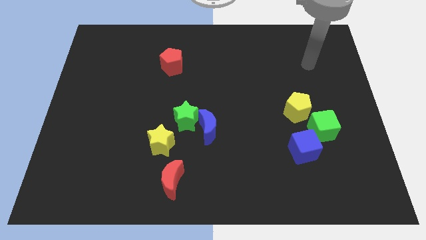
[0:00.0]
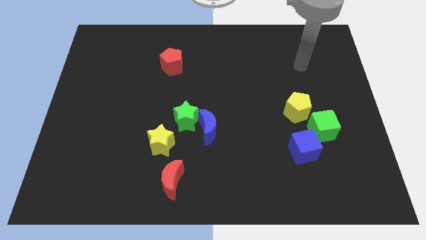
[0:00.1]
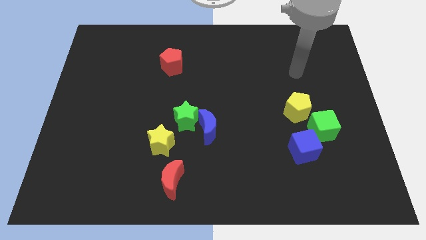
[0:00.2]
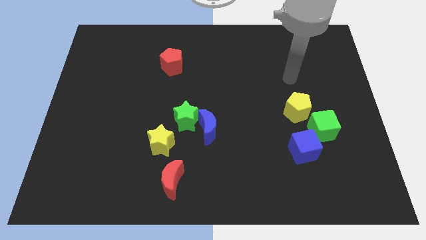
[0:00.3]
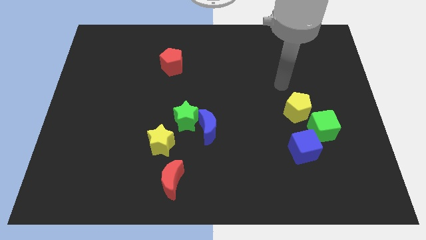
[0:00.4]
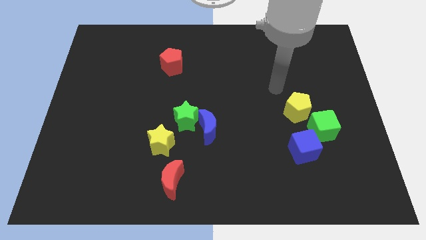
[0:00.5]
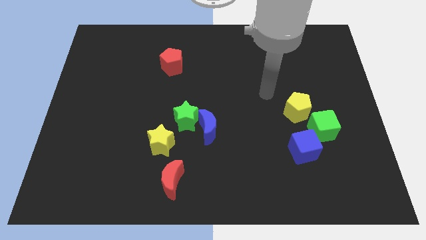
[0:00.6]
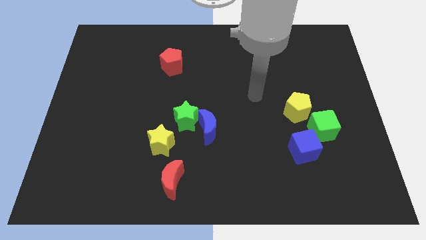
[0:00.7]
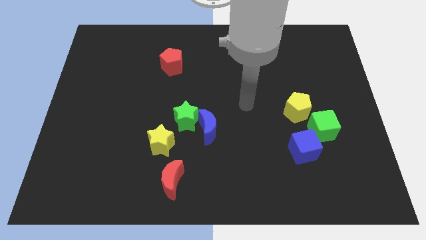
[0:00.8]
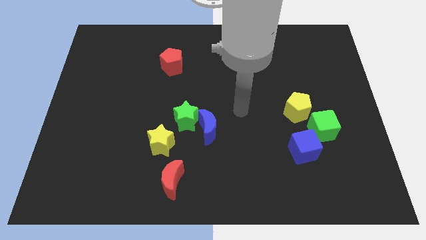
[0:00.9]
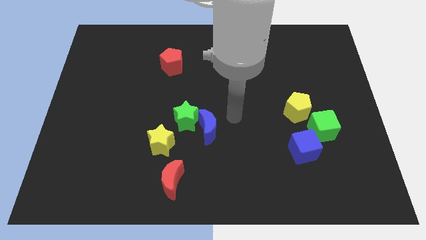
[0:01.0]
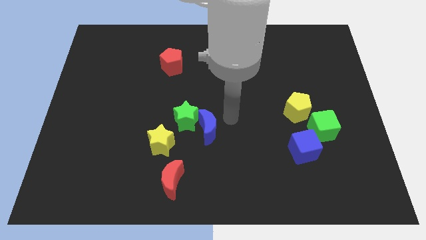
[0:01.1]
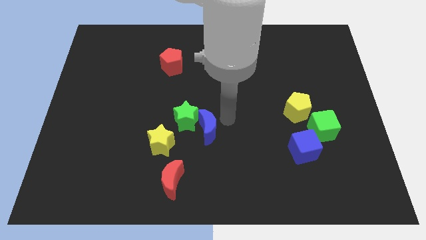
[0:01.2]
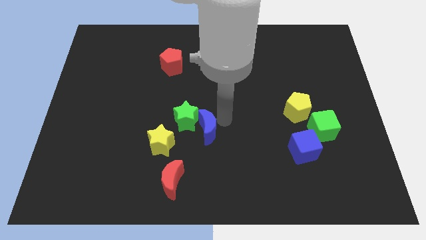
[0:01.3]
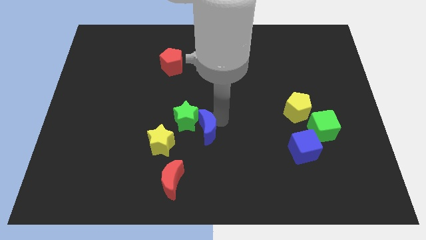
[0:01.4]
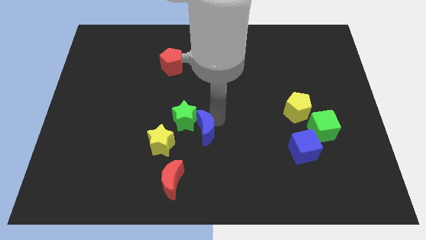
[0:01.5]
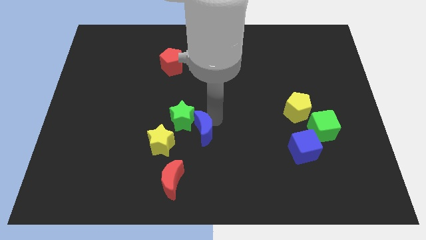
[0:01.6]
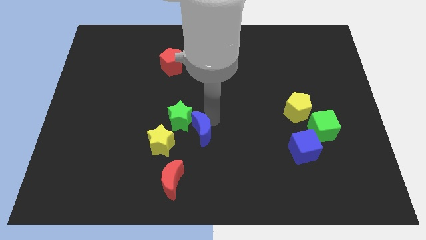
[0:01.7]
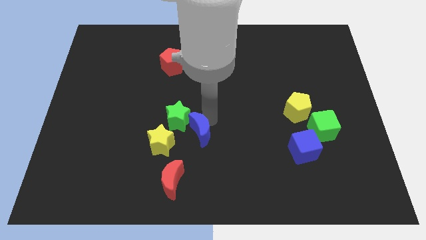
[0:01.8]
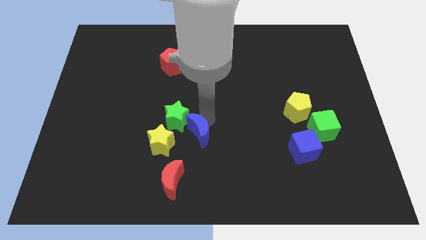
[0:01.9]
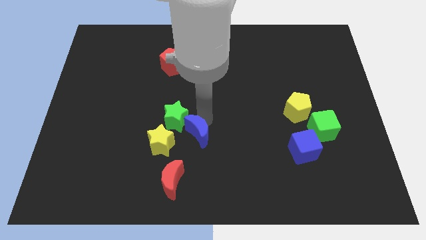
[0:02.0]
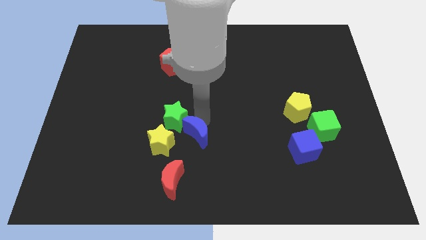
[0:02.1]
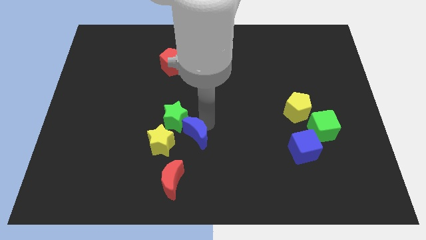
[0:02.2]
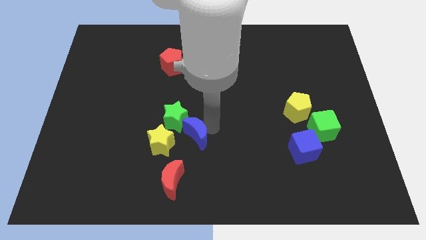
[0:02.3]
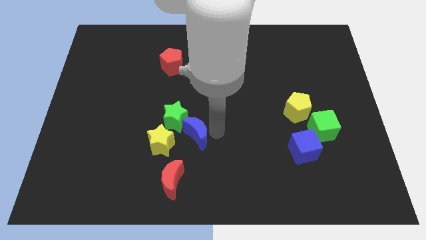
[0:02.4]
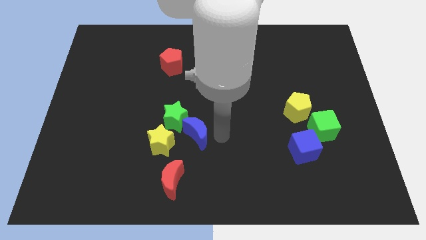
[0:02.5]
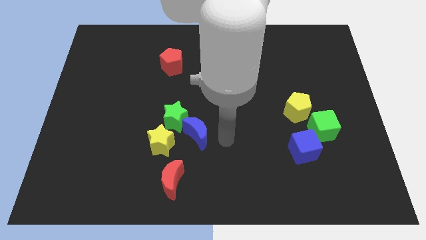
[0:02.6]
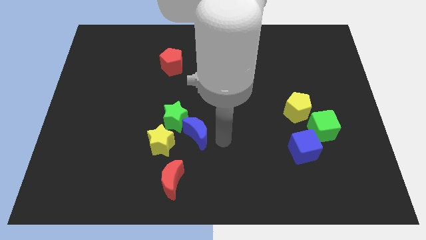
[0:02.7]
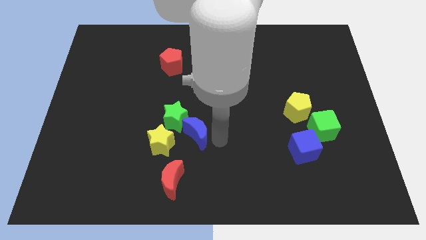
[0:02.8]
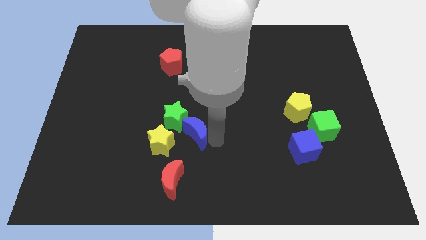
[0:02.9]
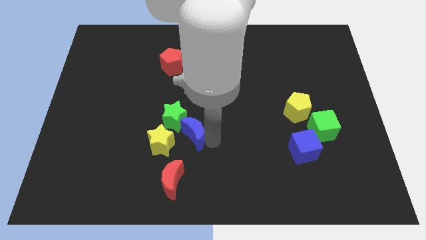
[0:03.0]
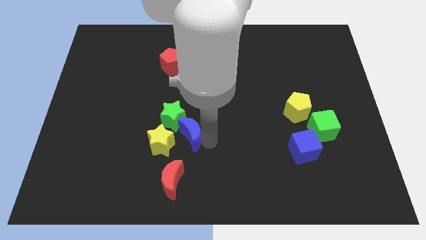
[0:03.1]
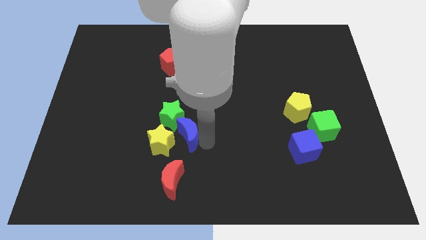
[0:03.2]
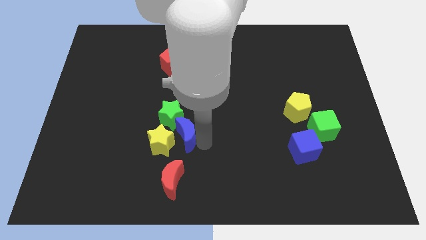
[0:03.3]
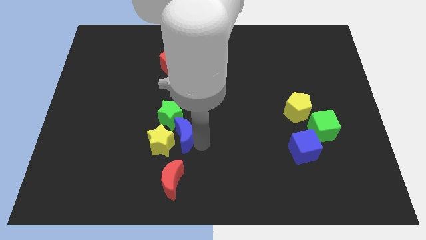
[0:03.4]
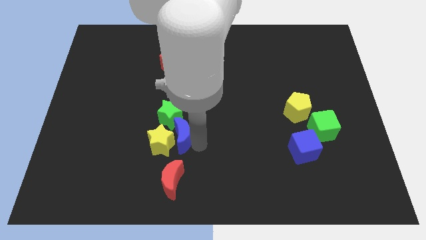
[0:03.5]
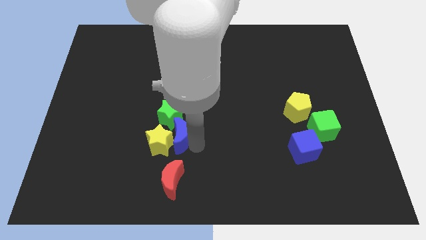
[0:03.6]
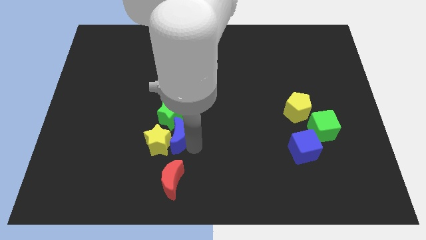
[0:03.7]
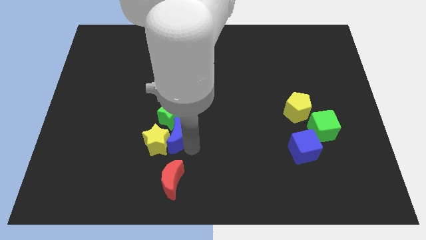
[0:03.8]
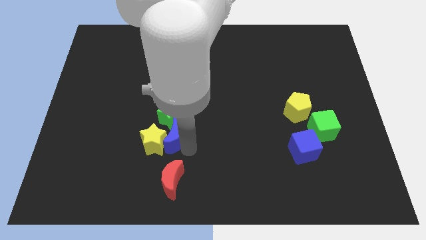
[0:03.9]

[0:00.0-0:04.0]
slightly slide the blue moon to the left

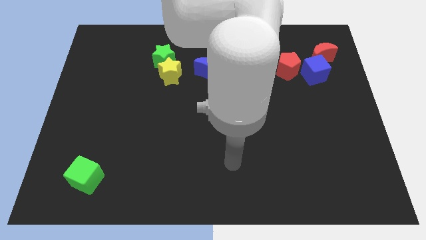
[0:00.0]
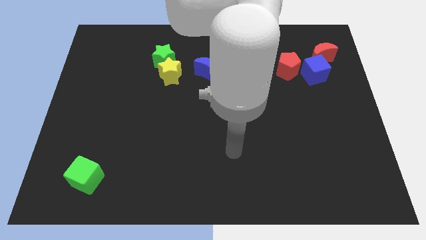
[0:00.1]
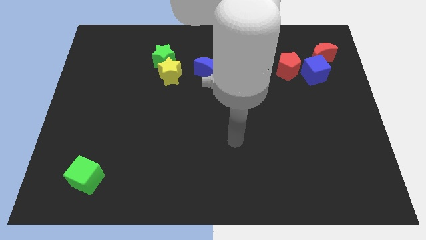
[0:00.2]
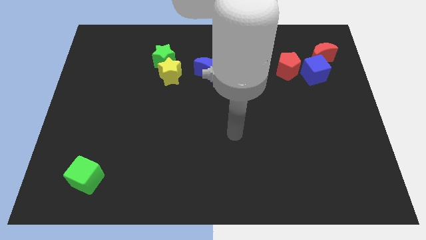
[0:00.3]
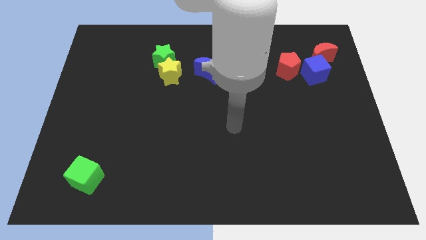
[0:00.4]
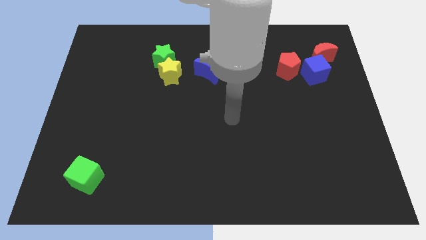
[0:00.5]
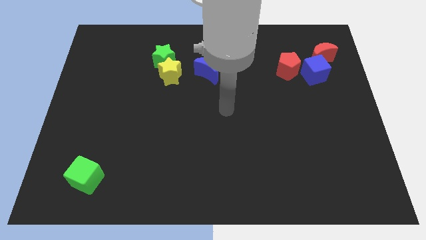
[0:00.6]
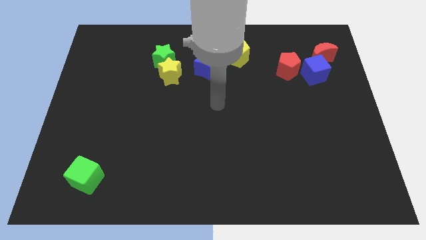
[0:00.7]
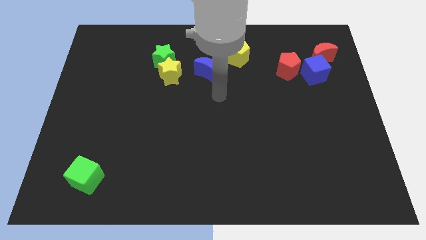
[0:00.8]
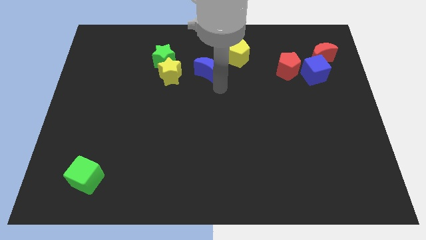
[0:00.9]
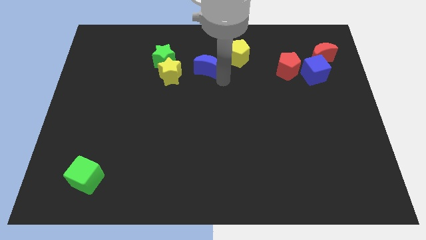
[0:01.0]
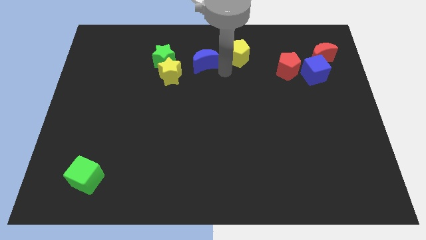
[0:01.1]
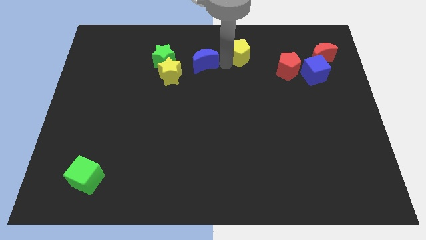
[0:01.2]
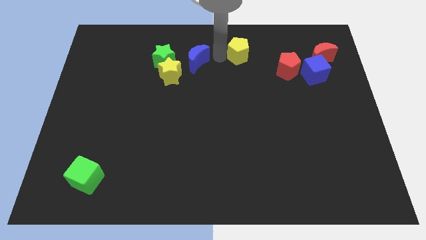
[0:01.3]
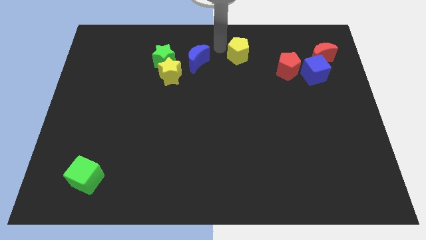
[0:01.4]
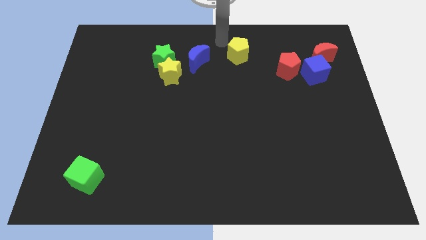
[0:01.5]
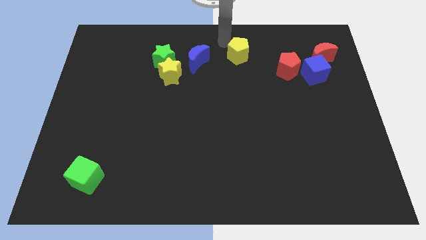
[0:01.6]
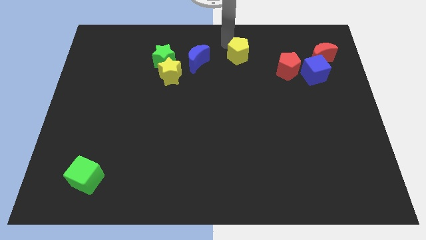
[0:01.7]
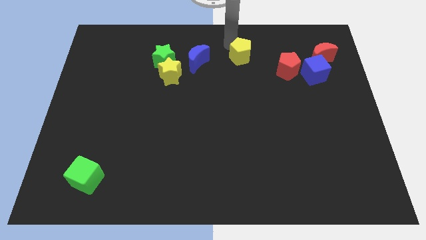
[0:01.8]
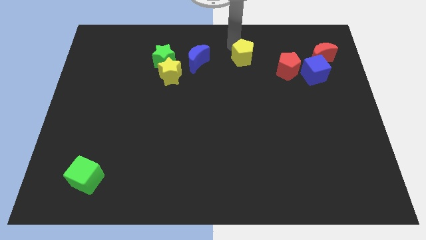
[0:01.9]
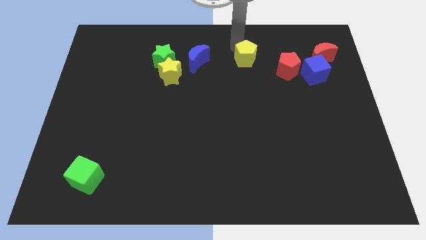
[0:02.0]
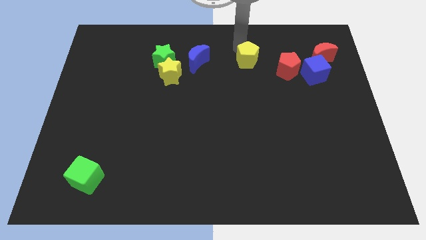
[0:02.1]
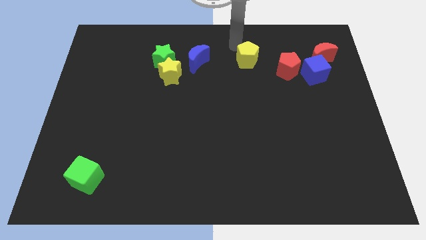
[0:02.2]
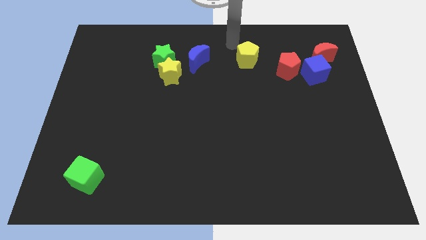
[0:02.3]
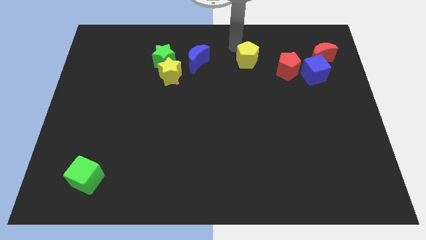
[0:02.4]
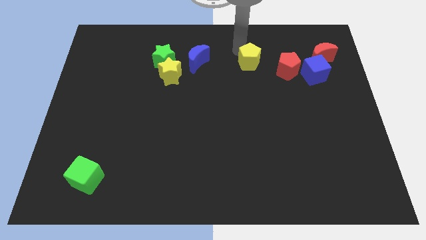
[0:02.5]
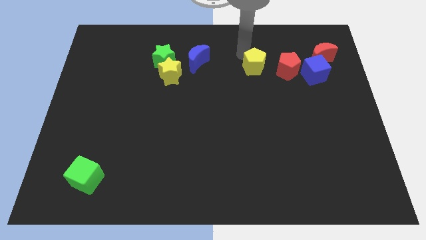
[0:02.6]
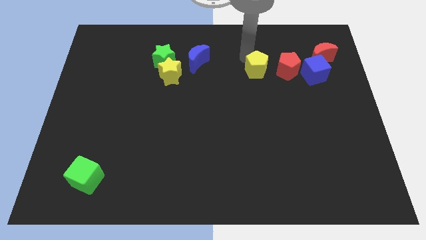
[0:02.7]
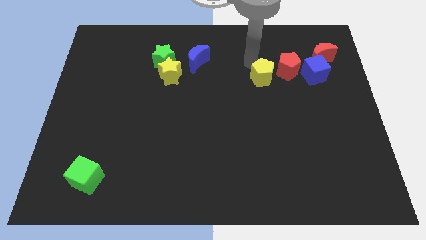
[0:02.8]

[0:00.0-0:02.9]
move the yellow pentagon down and then right somewhat

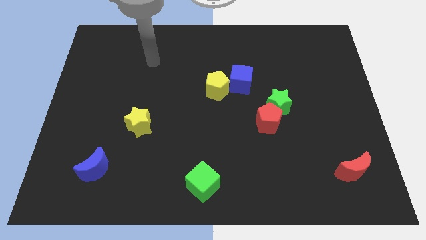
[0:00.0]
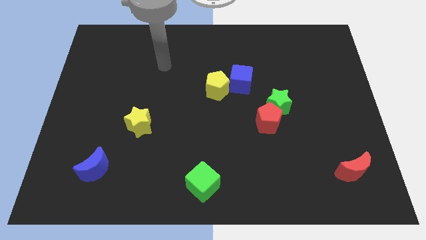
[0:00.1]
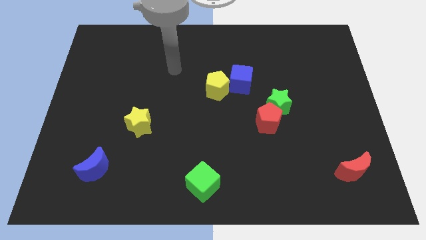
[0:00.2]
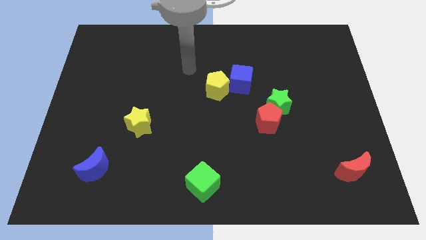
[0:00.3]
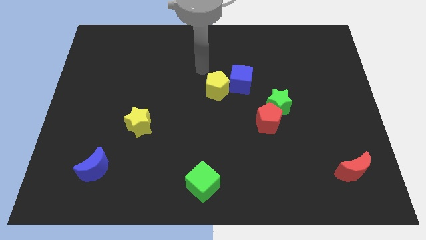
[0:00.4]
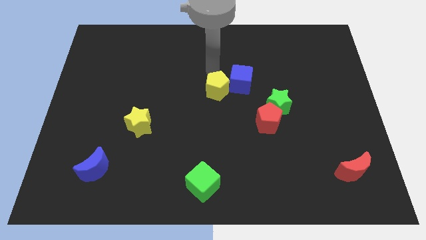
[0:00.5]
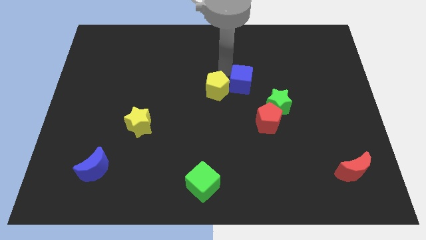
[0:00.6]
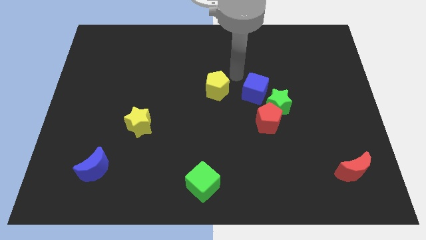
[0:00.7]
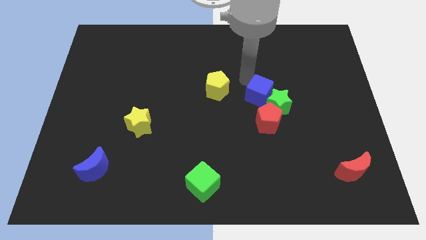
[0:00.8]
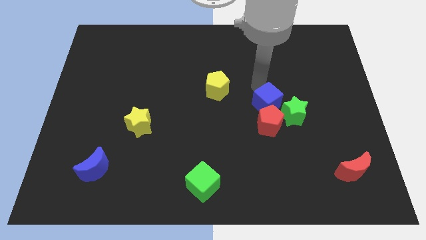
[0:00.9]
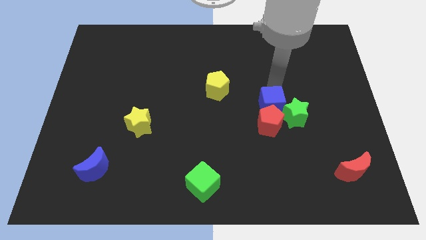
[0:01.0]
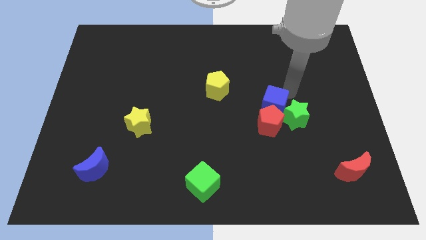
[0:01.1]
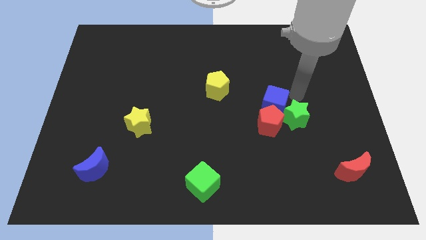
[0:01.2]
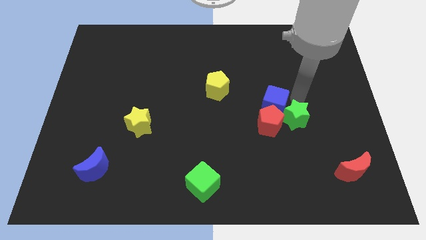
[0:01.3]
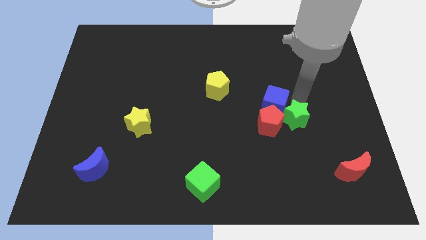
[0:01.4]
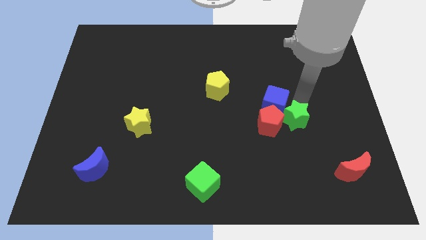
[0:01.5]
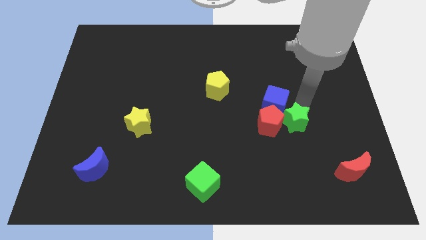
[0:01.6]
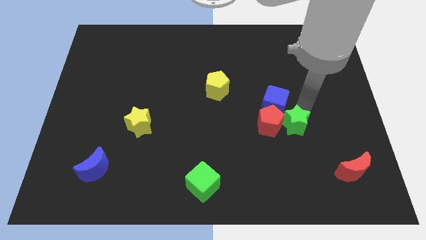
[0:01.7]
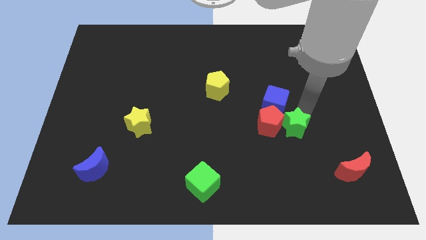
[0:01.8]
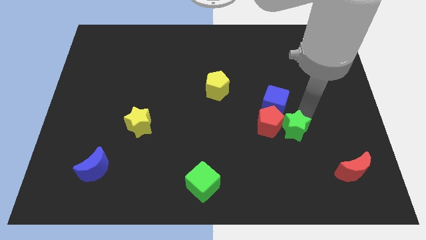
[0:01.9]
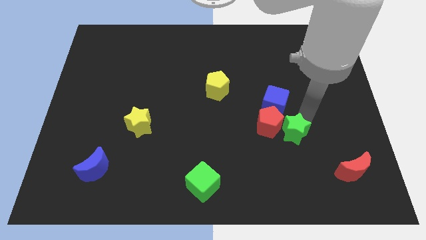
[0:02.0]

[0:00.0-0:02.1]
push the green star down a little
